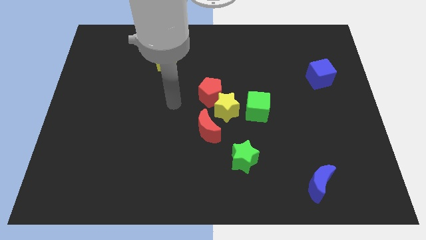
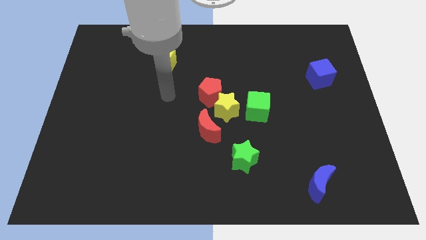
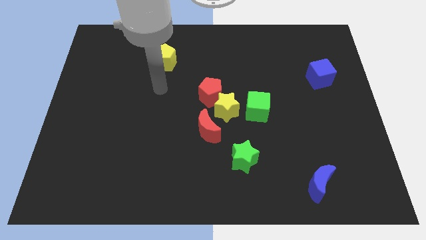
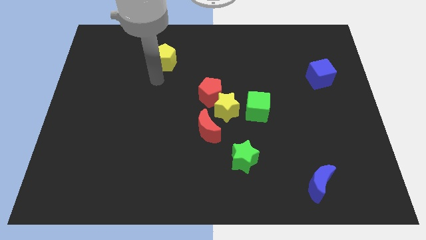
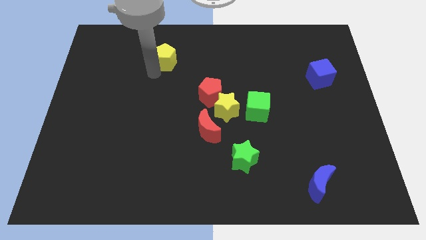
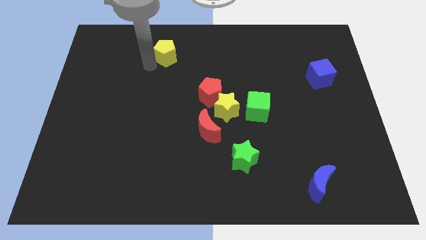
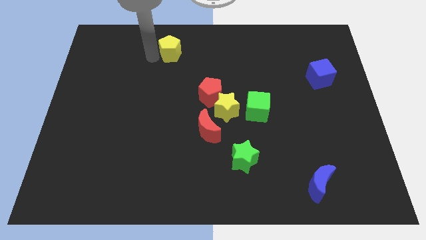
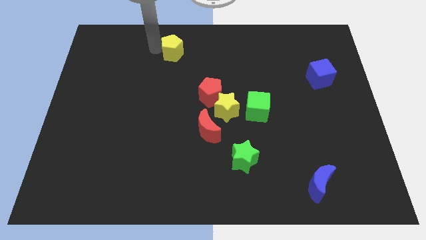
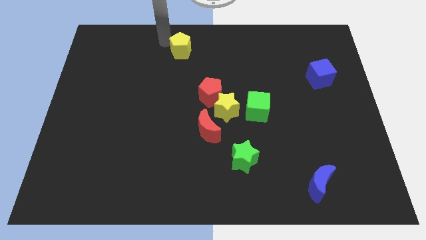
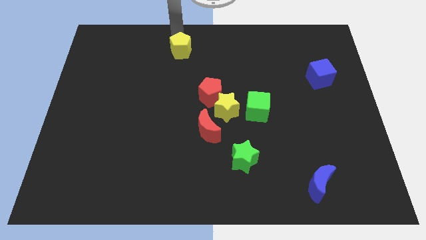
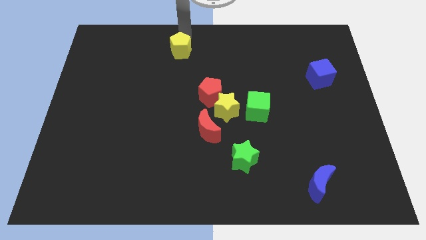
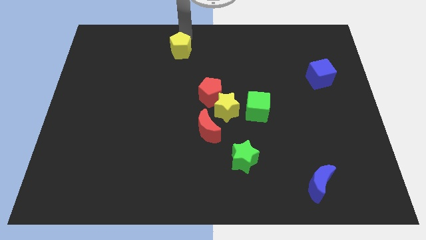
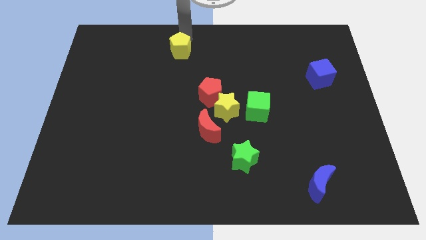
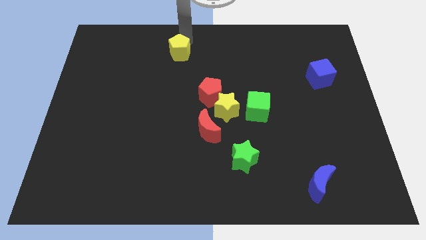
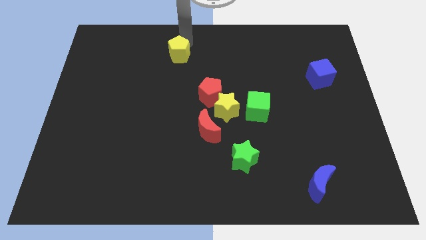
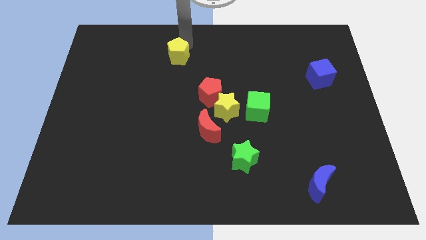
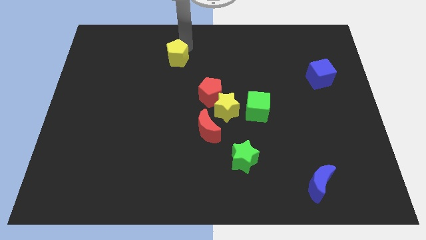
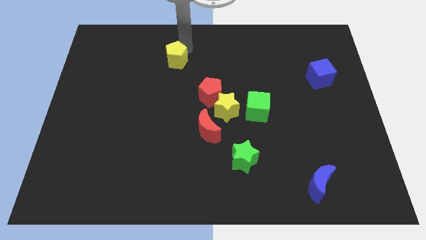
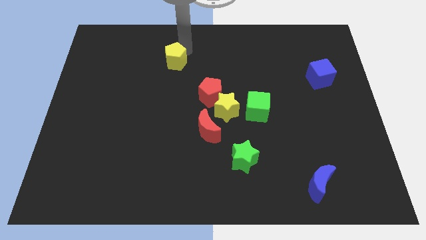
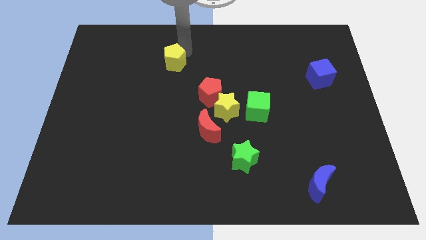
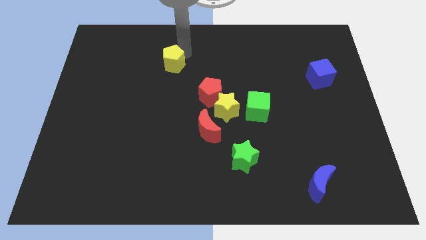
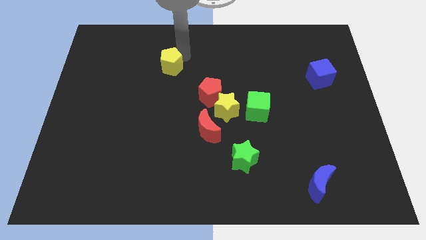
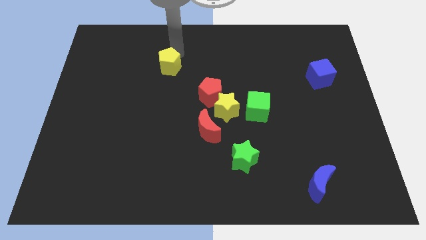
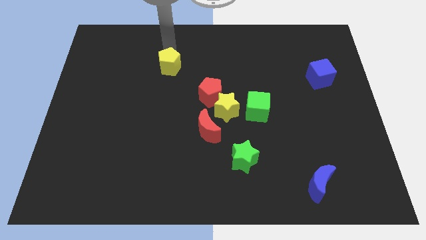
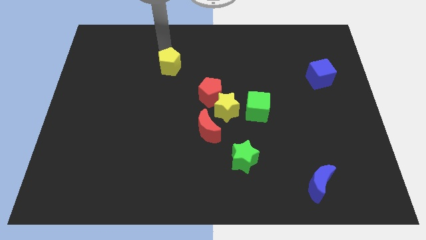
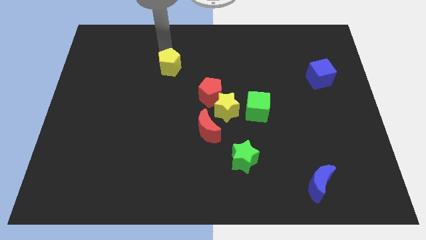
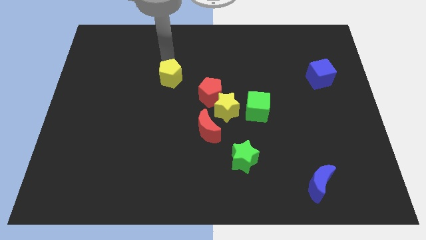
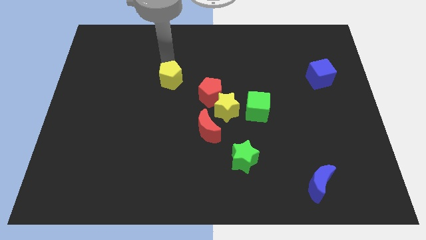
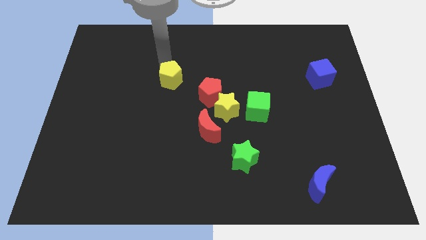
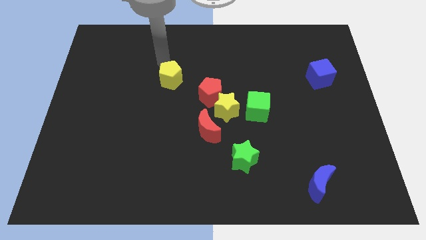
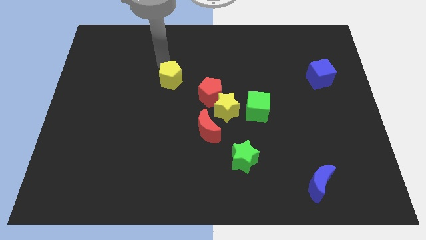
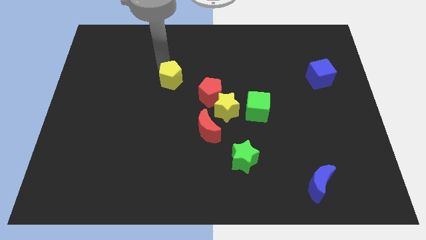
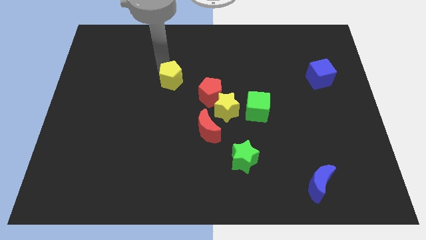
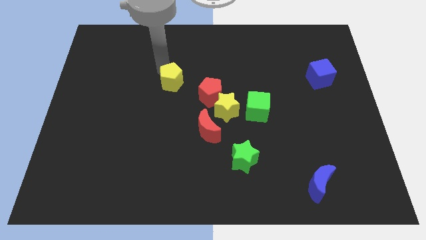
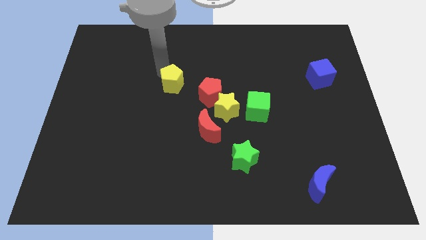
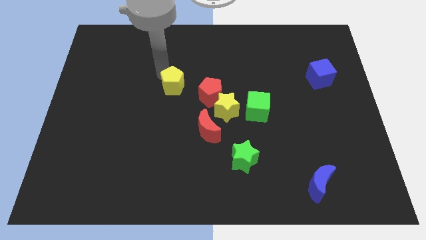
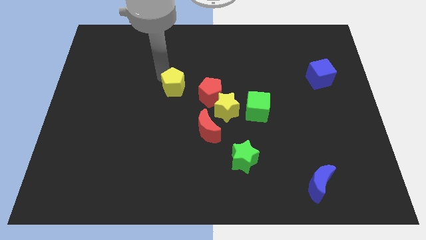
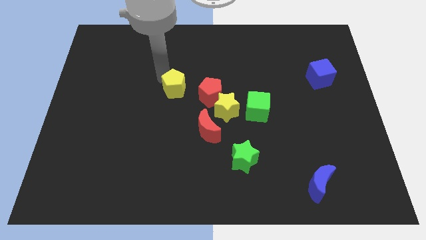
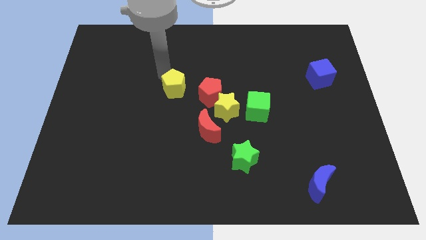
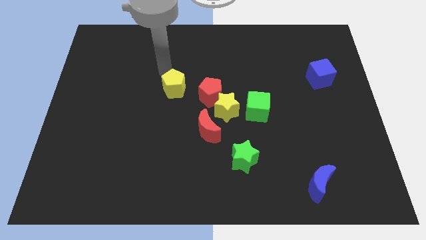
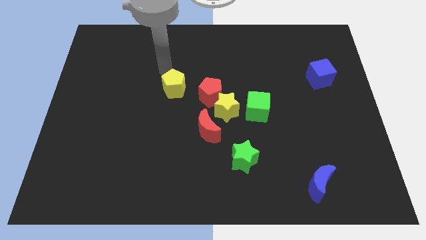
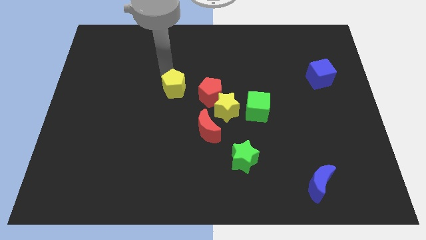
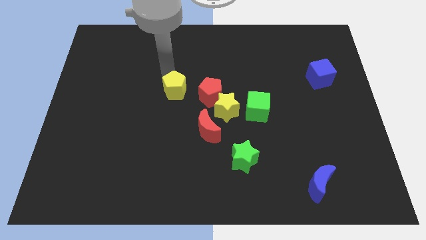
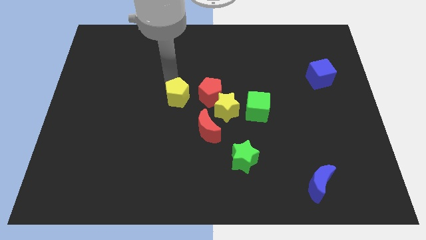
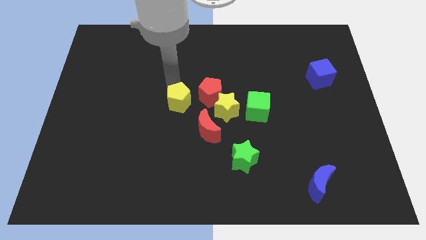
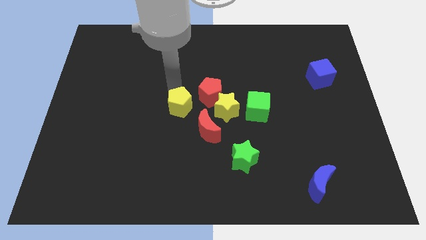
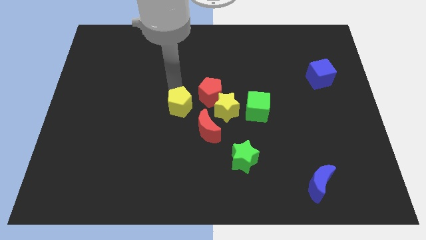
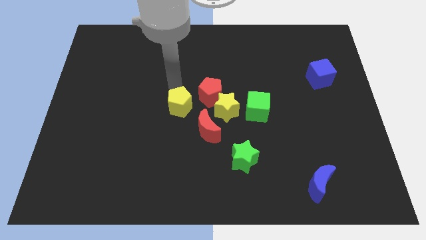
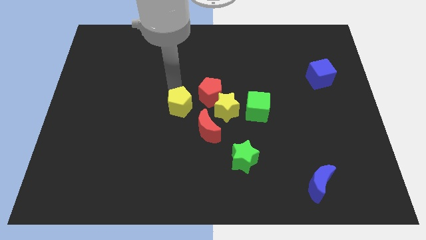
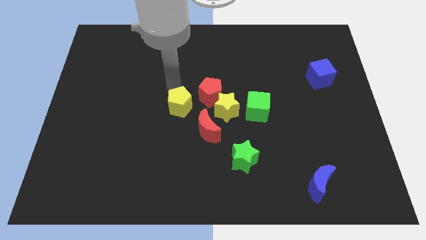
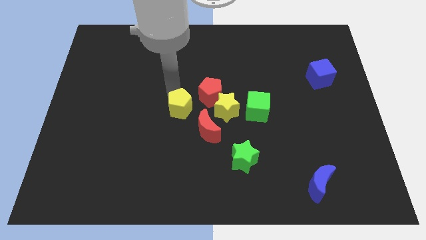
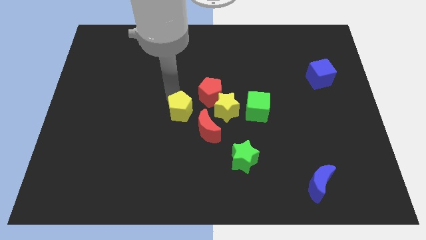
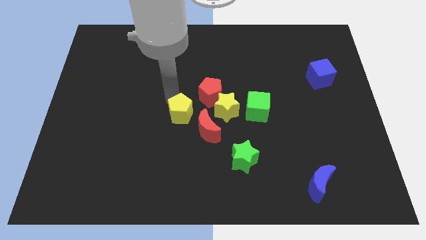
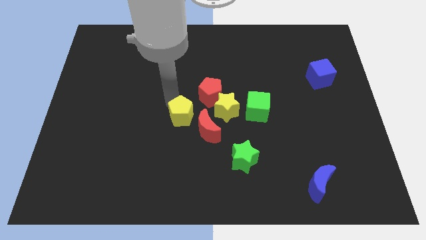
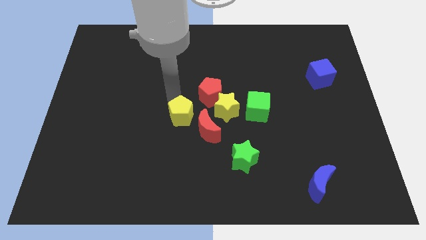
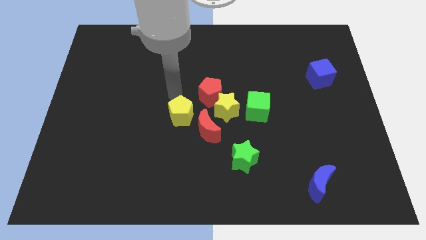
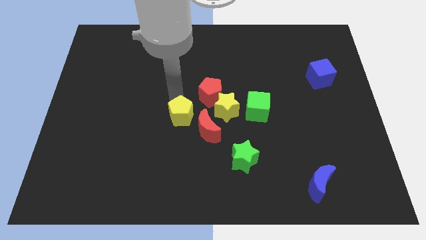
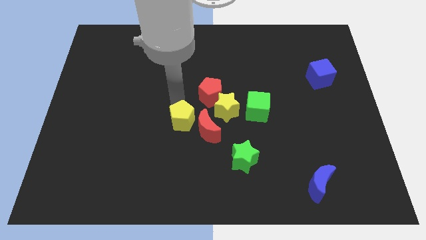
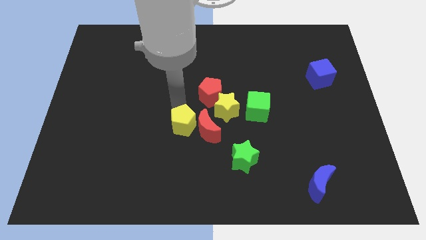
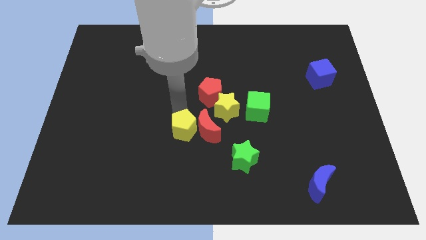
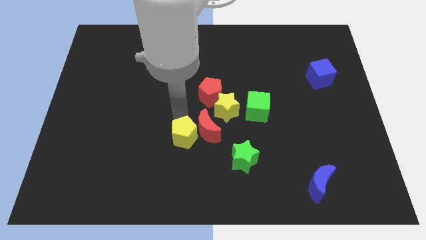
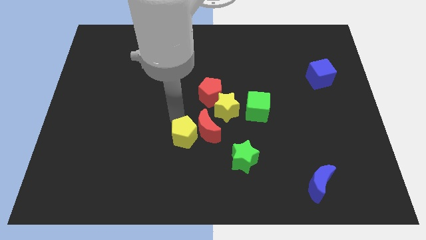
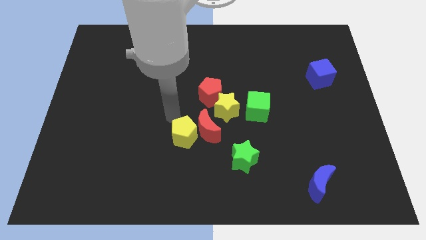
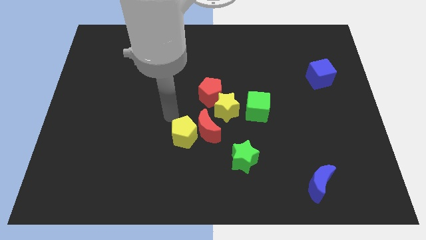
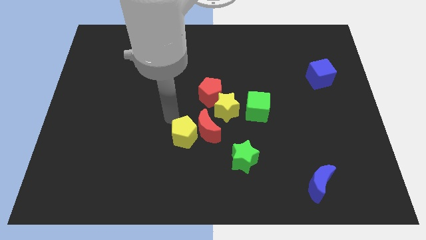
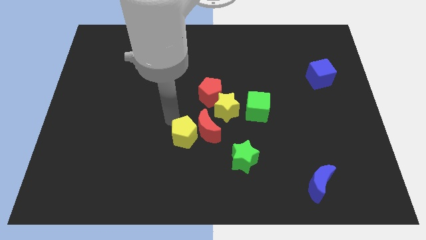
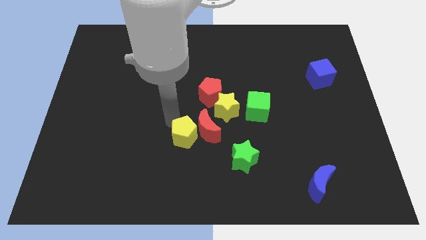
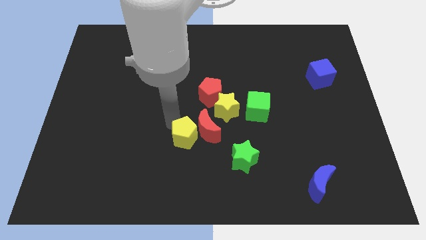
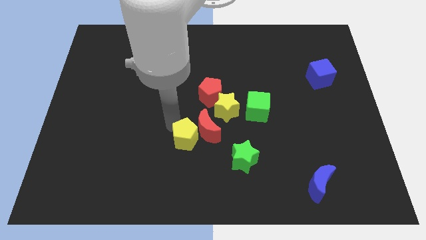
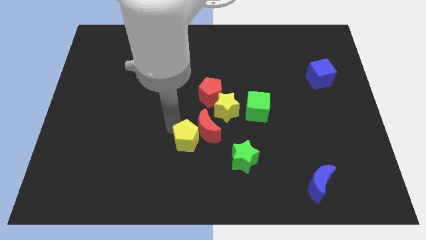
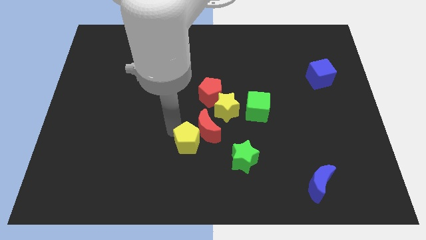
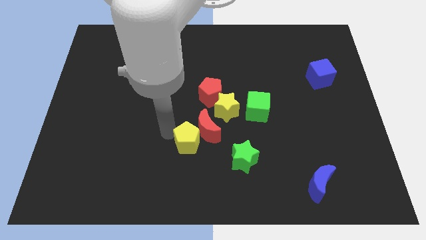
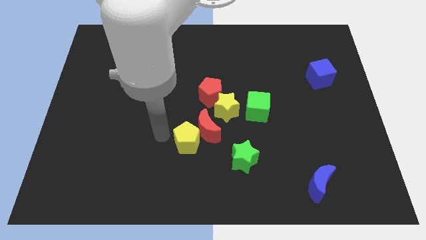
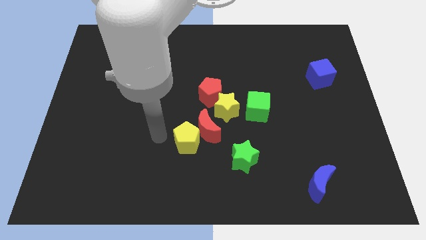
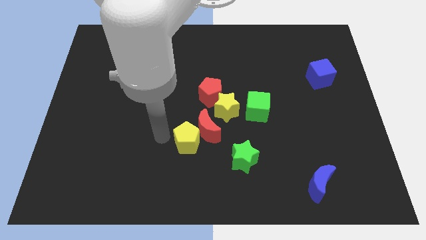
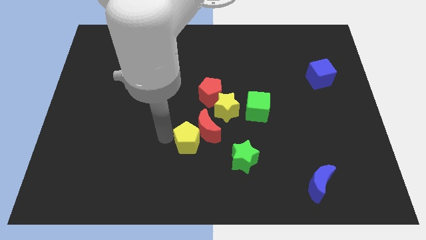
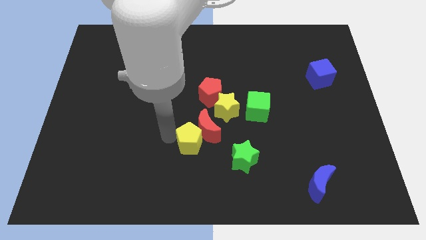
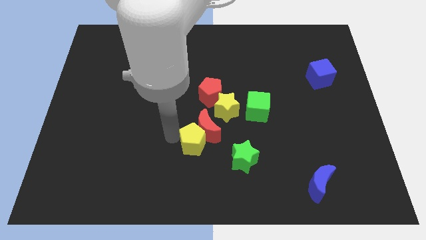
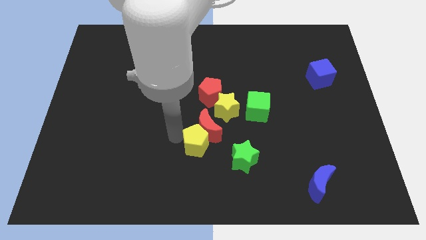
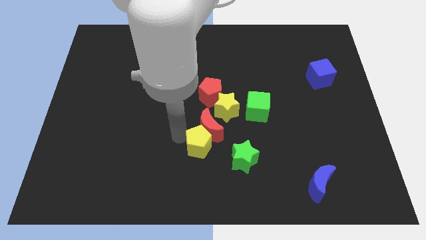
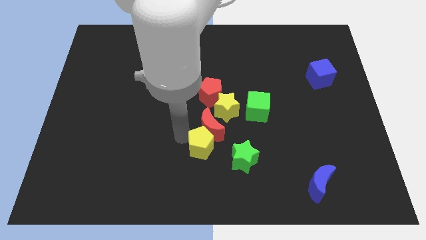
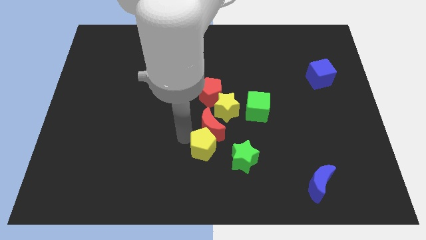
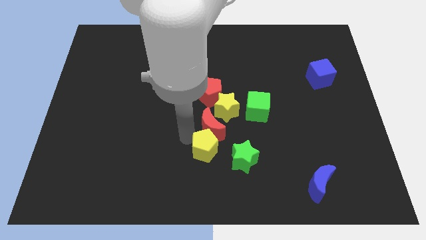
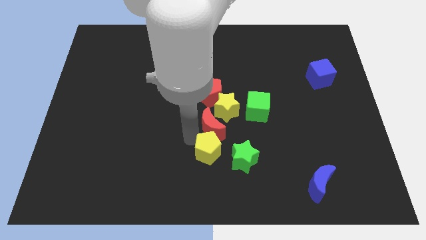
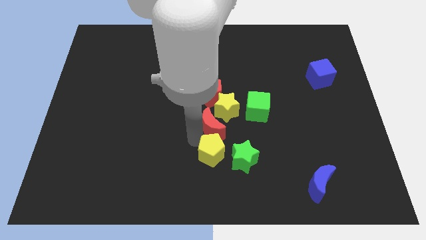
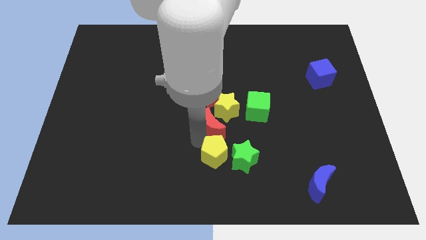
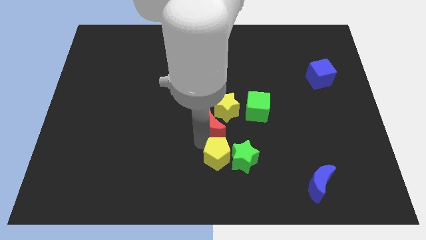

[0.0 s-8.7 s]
slide the yellow pentagon close to the green star
